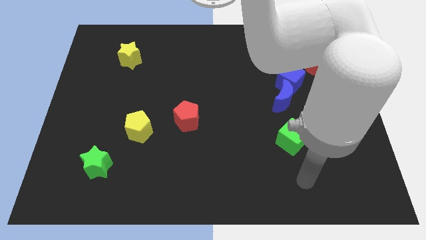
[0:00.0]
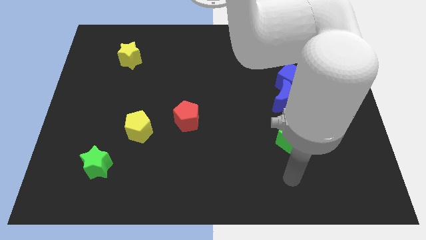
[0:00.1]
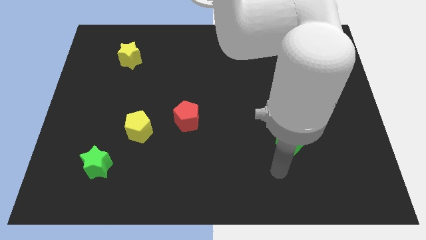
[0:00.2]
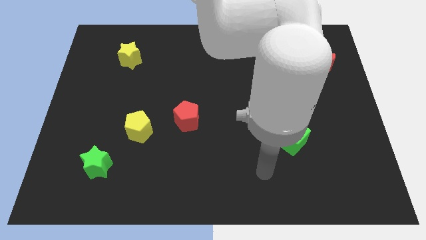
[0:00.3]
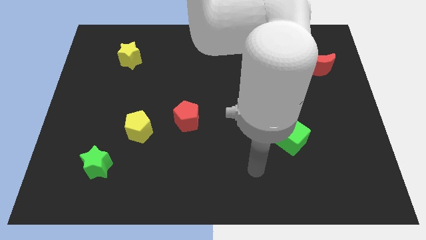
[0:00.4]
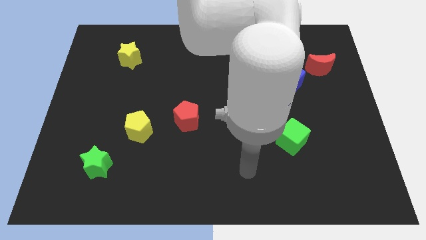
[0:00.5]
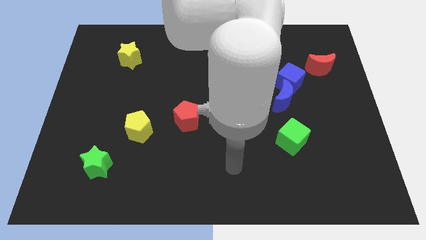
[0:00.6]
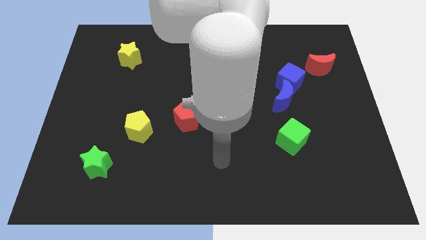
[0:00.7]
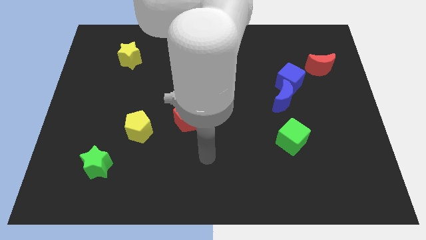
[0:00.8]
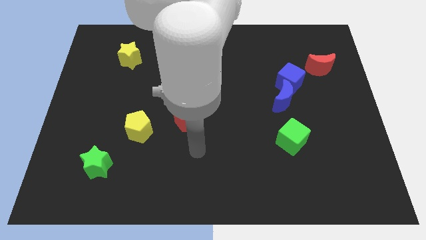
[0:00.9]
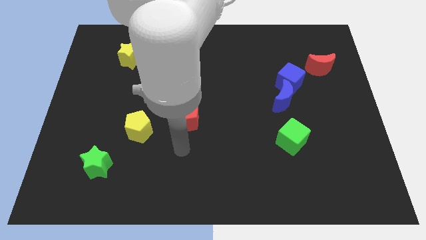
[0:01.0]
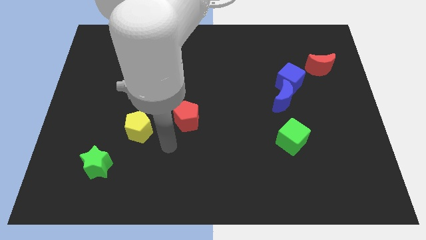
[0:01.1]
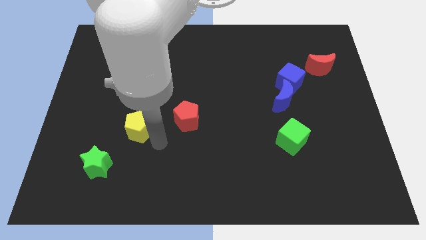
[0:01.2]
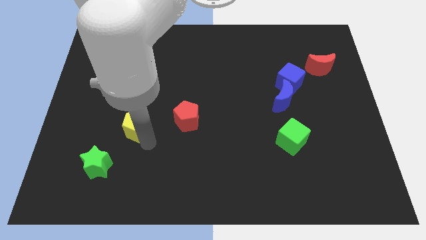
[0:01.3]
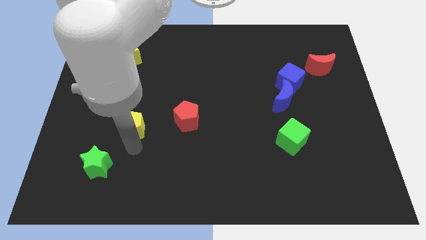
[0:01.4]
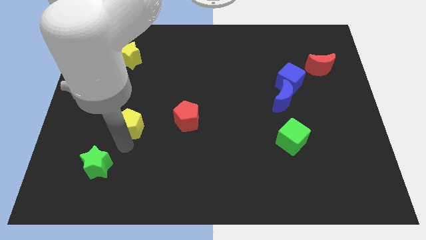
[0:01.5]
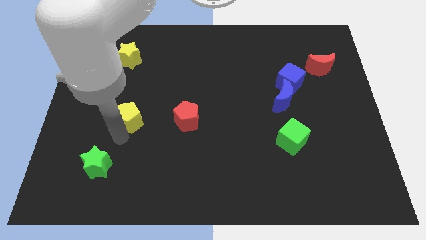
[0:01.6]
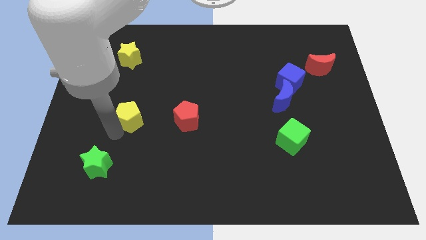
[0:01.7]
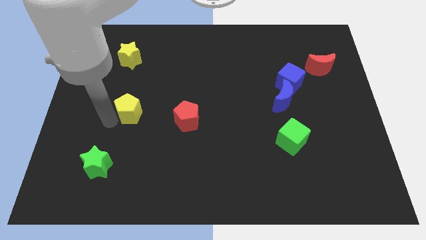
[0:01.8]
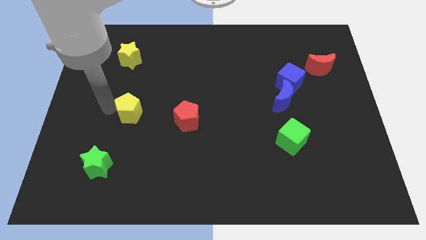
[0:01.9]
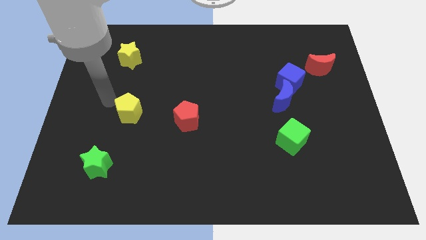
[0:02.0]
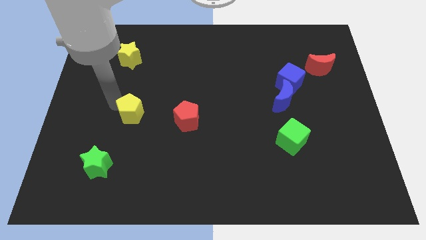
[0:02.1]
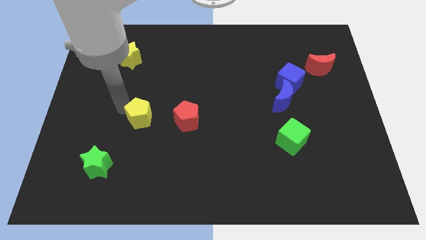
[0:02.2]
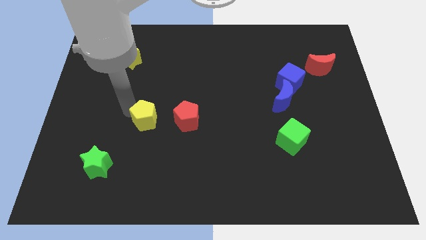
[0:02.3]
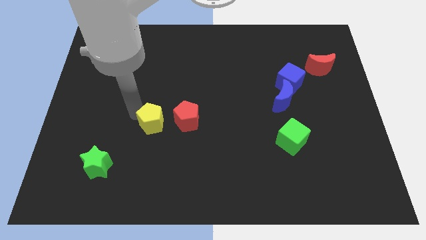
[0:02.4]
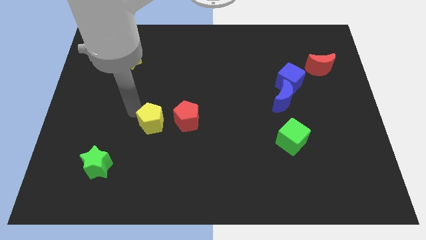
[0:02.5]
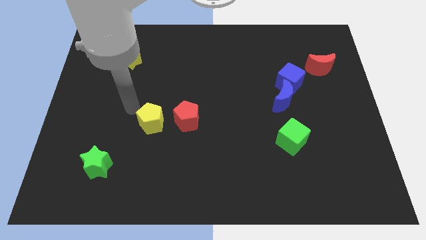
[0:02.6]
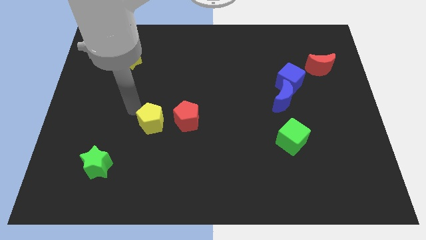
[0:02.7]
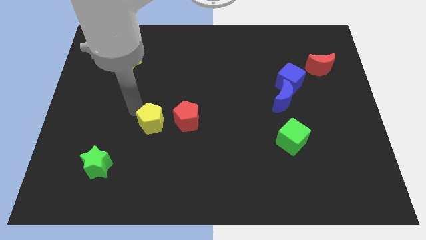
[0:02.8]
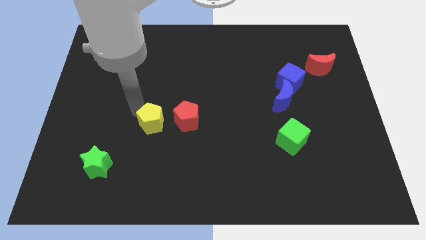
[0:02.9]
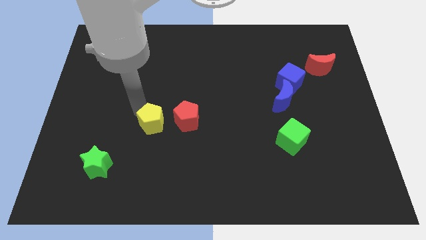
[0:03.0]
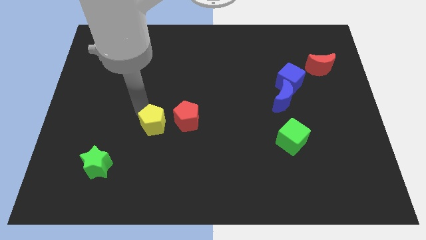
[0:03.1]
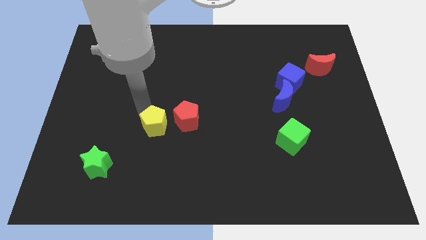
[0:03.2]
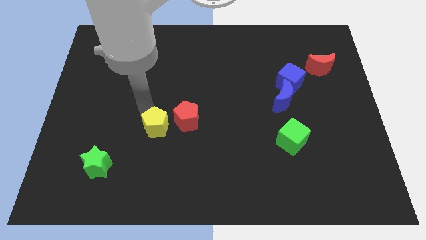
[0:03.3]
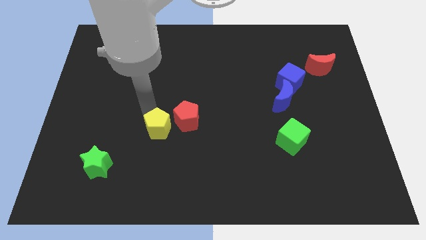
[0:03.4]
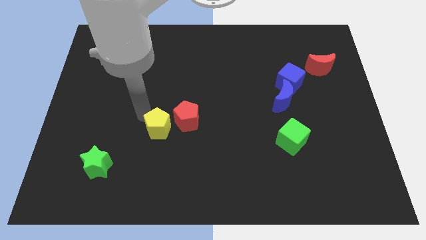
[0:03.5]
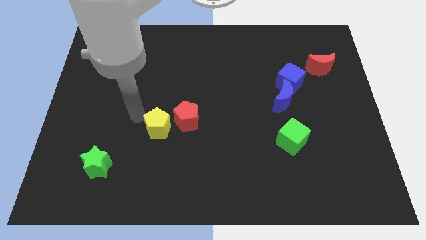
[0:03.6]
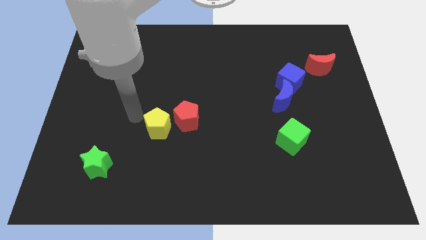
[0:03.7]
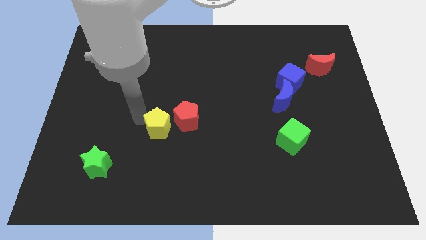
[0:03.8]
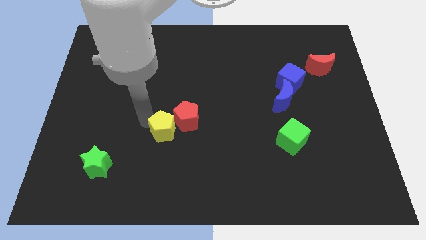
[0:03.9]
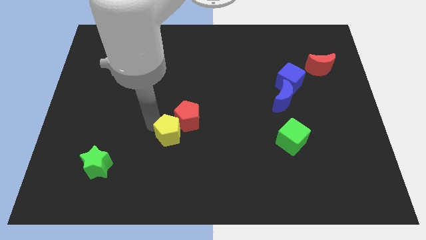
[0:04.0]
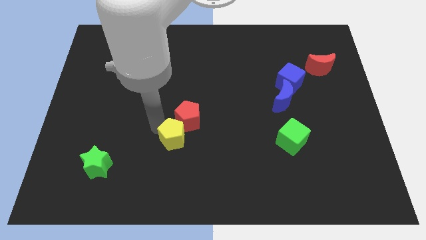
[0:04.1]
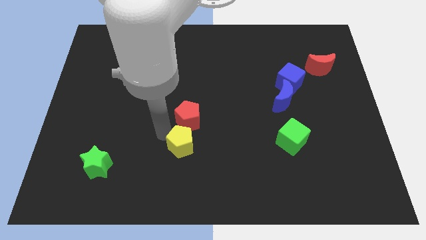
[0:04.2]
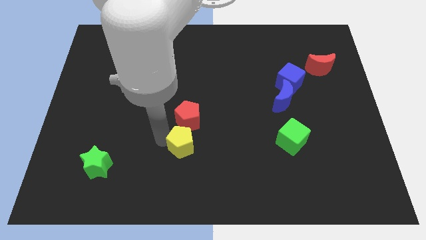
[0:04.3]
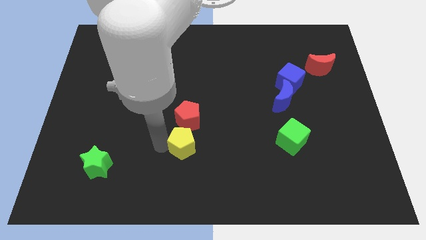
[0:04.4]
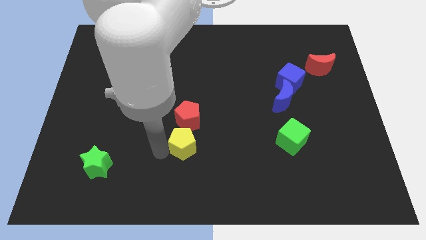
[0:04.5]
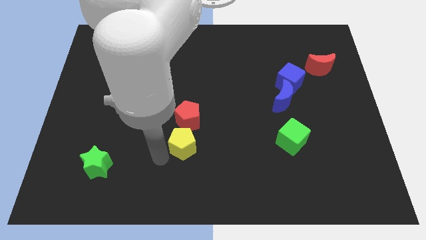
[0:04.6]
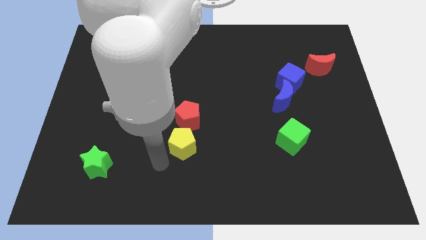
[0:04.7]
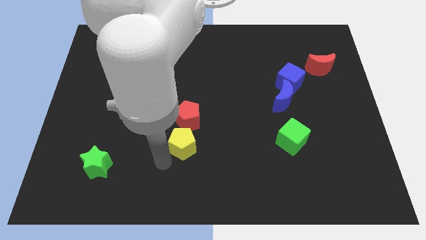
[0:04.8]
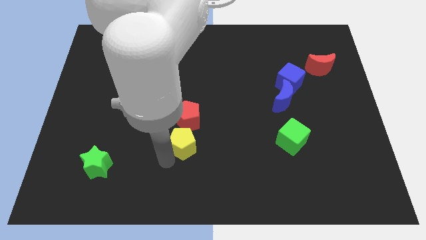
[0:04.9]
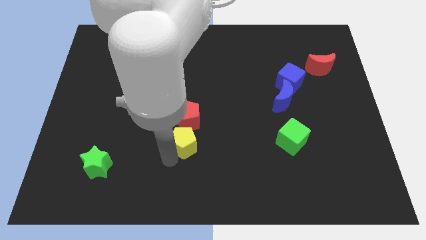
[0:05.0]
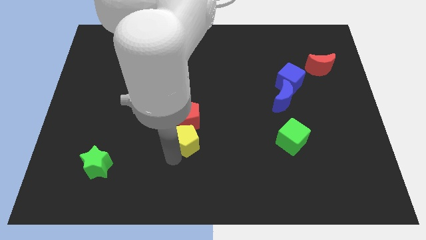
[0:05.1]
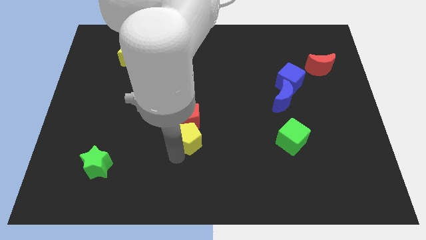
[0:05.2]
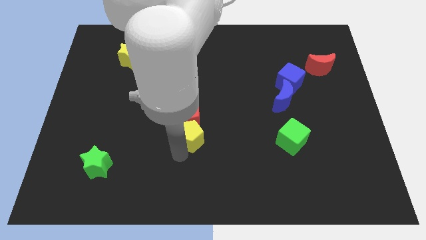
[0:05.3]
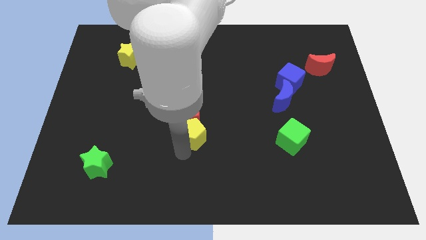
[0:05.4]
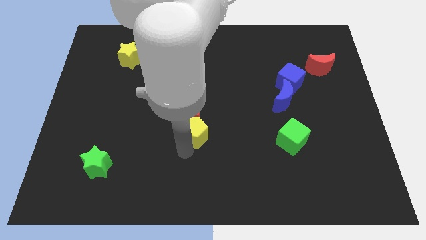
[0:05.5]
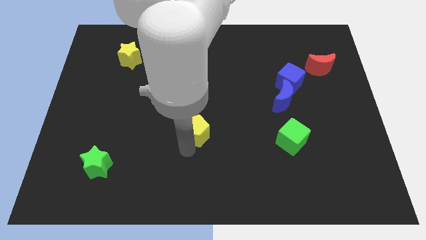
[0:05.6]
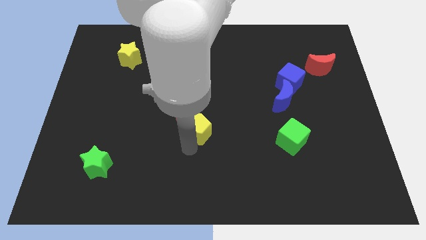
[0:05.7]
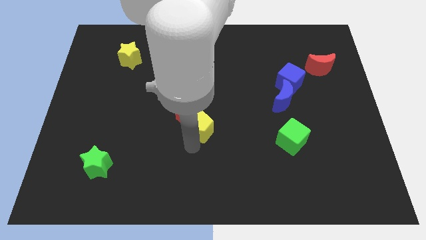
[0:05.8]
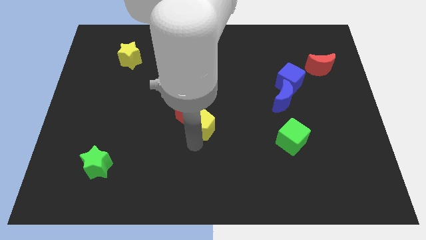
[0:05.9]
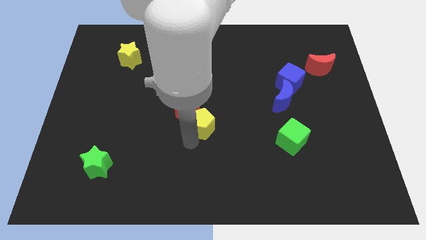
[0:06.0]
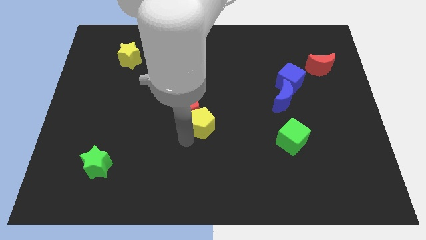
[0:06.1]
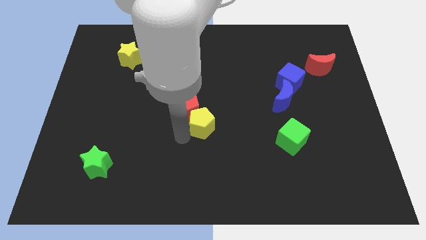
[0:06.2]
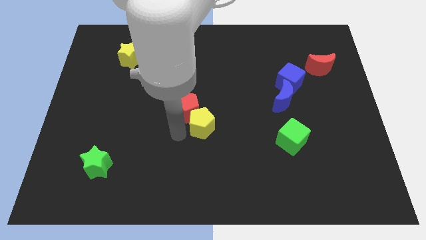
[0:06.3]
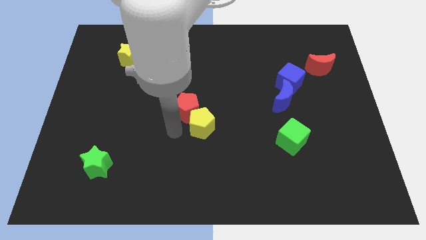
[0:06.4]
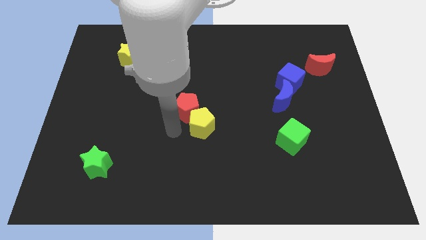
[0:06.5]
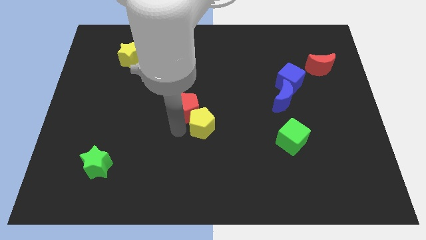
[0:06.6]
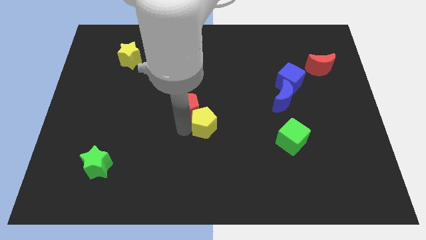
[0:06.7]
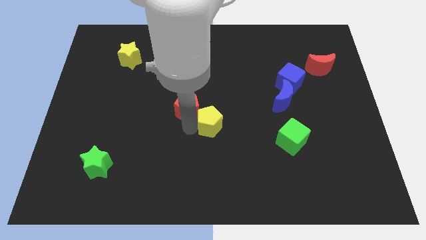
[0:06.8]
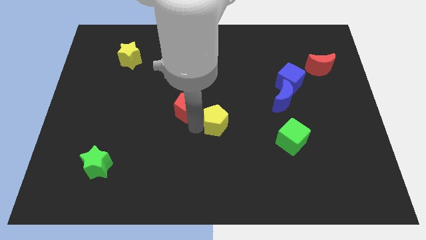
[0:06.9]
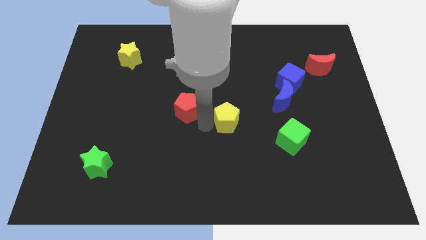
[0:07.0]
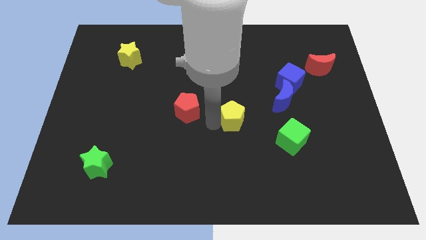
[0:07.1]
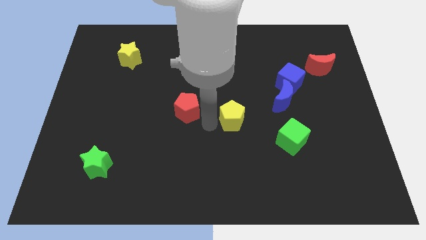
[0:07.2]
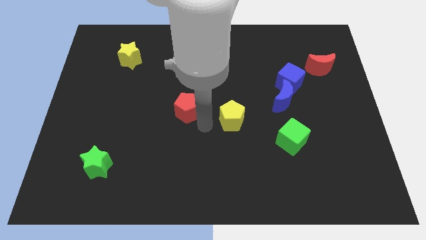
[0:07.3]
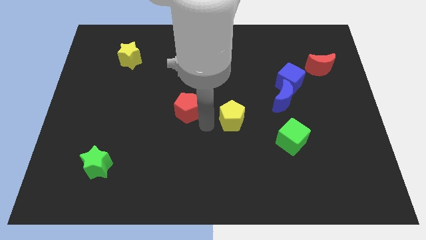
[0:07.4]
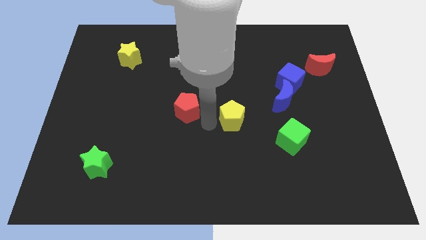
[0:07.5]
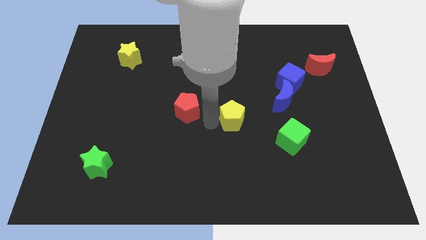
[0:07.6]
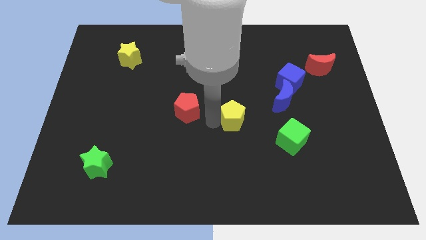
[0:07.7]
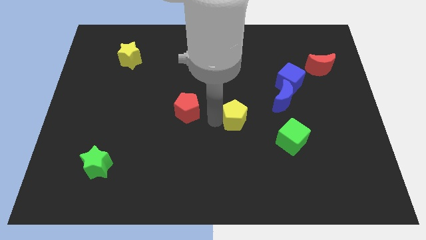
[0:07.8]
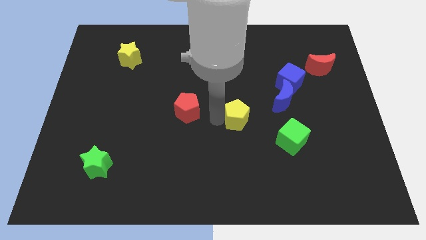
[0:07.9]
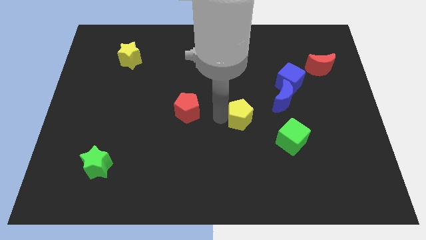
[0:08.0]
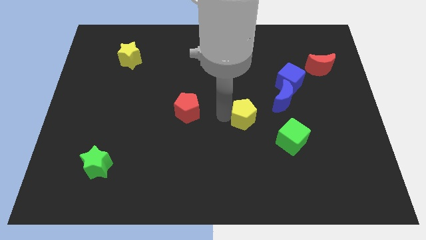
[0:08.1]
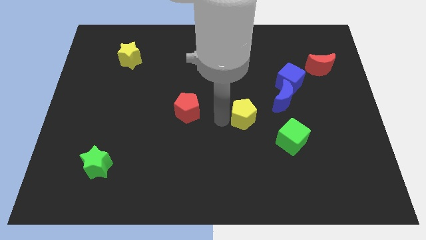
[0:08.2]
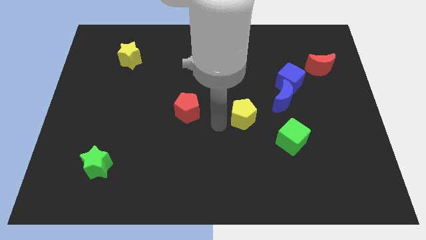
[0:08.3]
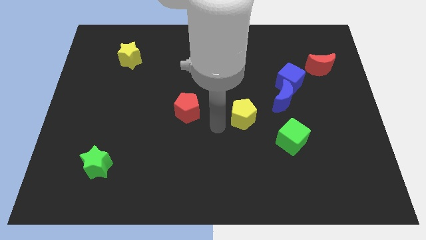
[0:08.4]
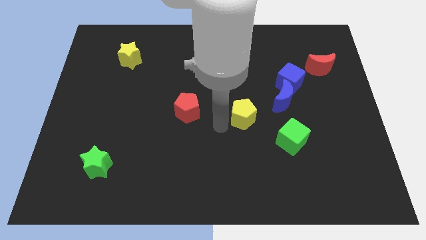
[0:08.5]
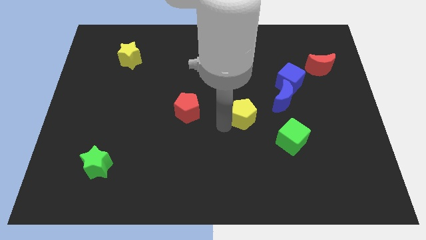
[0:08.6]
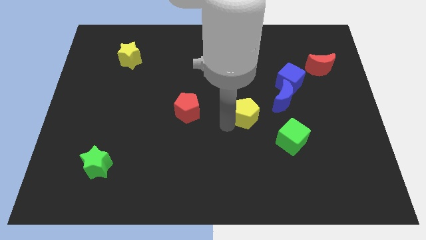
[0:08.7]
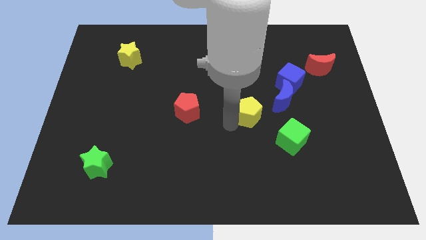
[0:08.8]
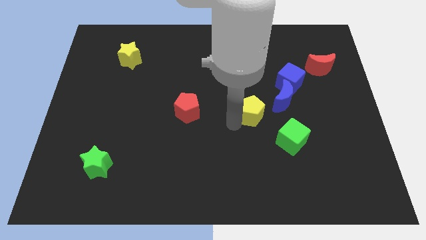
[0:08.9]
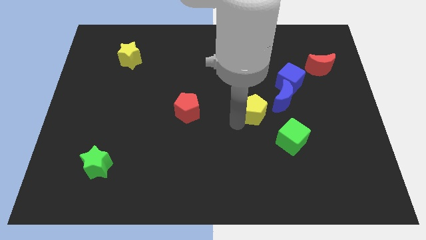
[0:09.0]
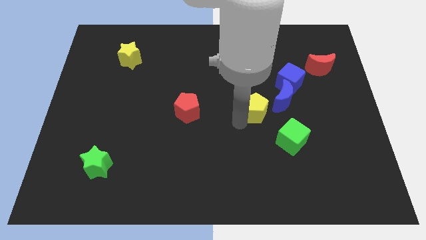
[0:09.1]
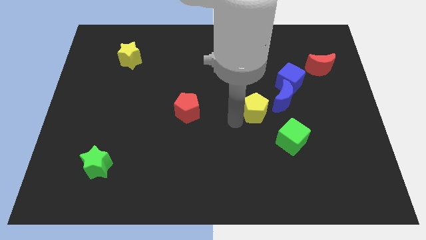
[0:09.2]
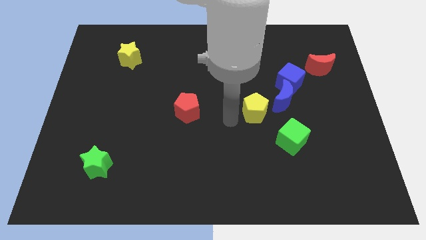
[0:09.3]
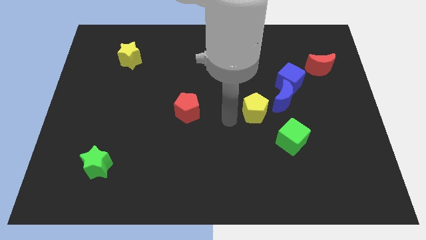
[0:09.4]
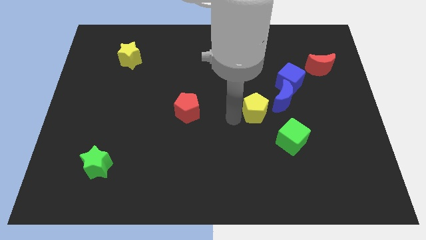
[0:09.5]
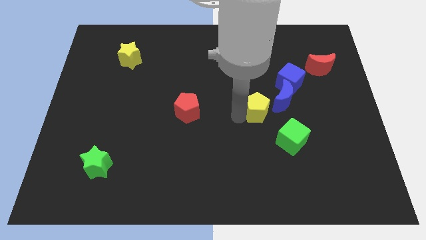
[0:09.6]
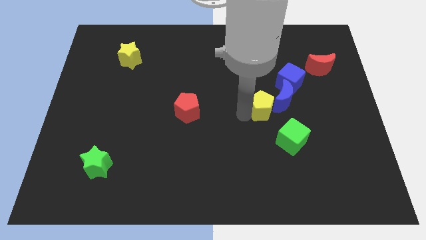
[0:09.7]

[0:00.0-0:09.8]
put the yellow pentagon close to the blue moon
